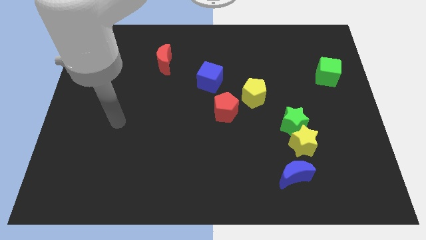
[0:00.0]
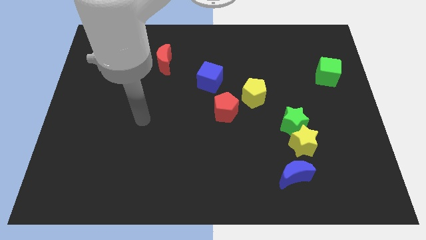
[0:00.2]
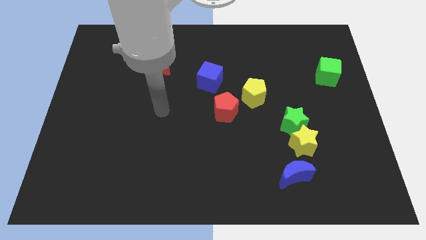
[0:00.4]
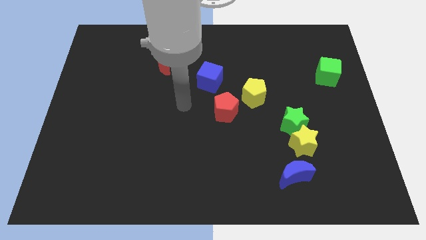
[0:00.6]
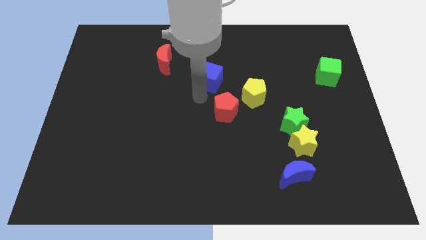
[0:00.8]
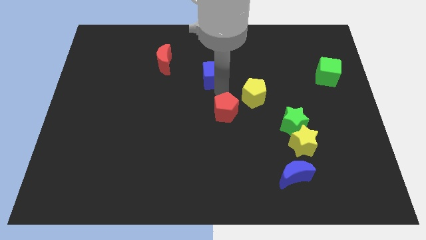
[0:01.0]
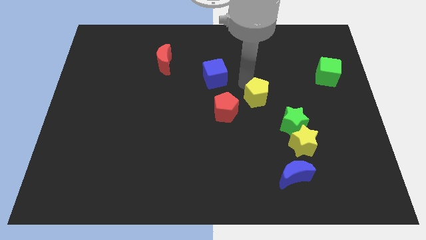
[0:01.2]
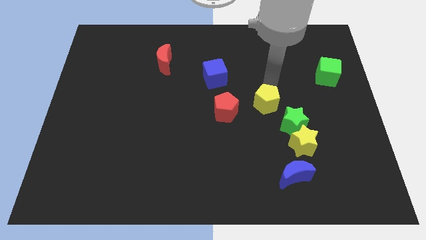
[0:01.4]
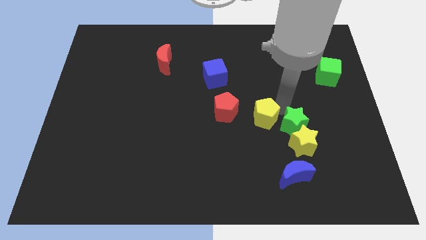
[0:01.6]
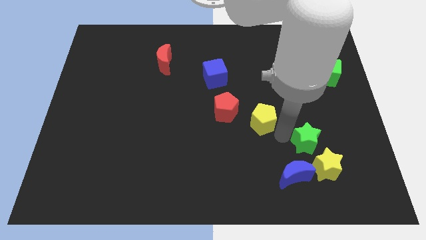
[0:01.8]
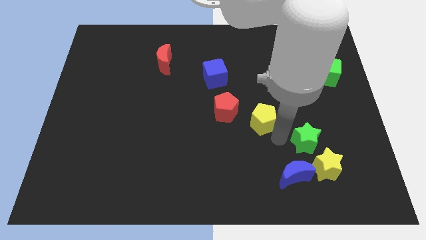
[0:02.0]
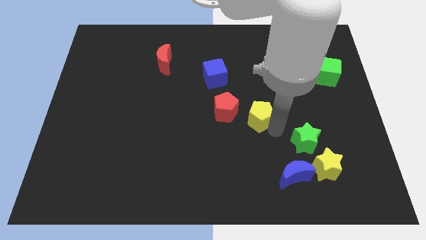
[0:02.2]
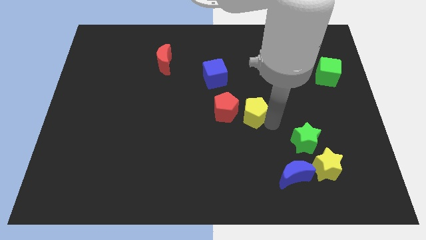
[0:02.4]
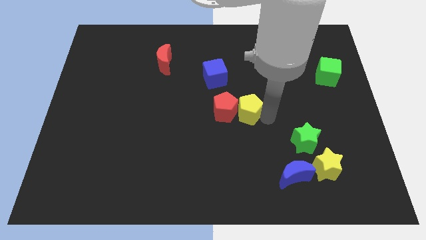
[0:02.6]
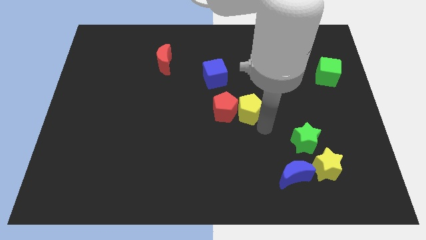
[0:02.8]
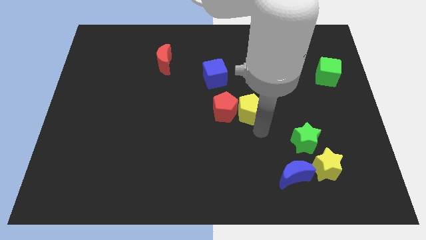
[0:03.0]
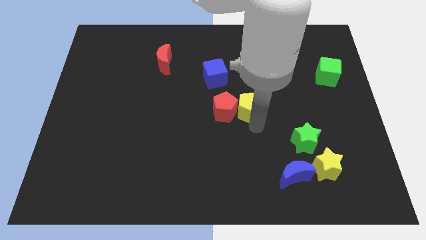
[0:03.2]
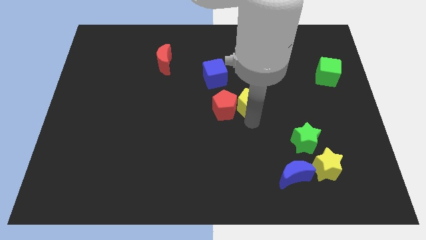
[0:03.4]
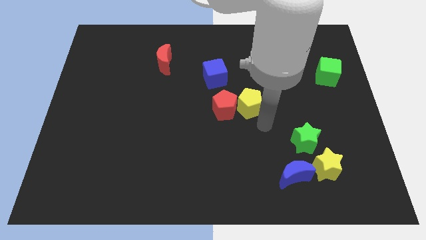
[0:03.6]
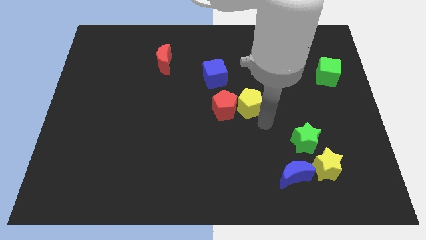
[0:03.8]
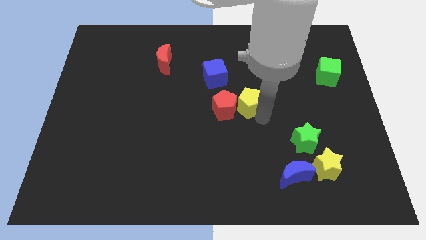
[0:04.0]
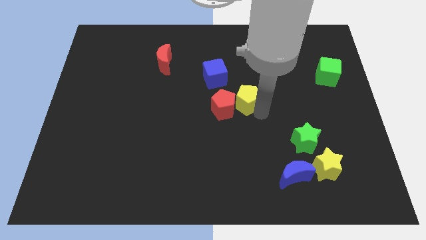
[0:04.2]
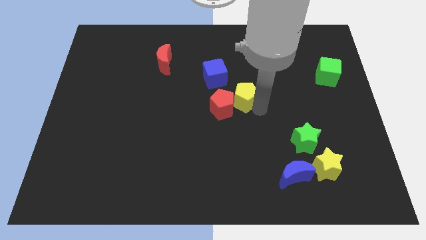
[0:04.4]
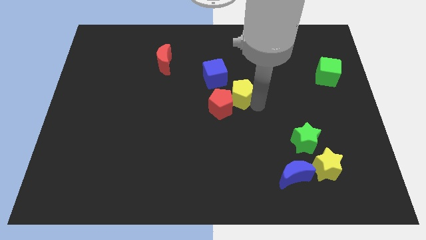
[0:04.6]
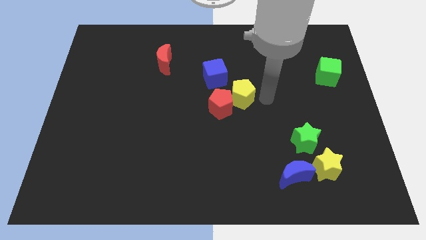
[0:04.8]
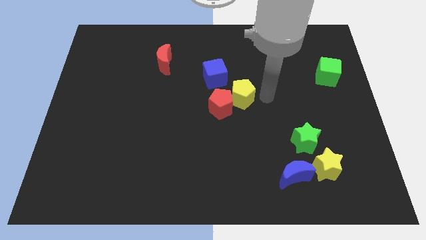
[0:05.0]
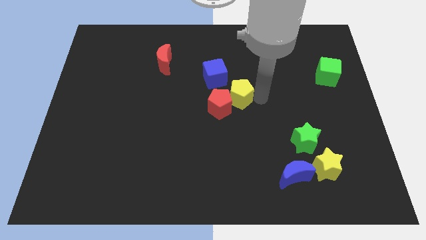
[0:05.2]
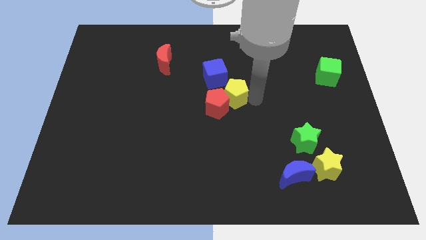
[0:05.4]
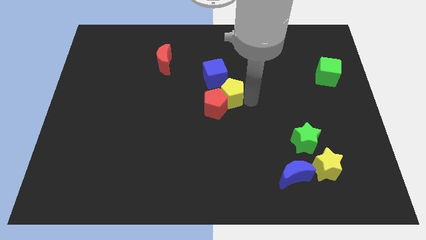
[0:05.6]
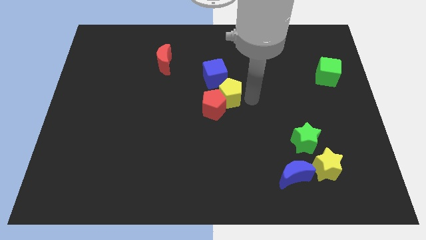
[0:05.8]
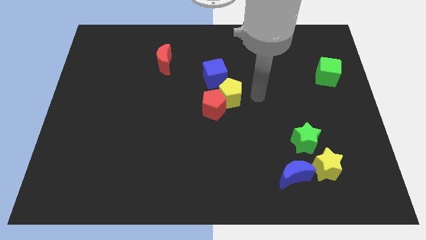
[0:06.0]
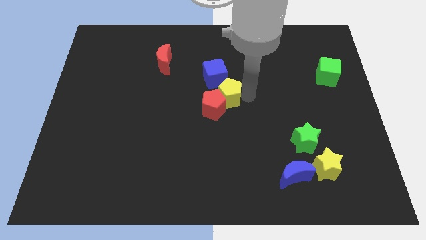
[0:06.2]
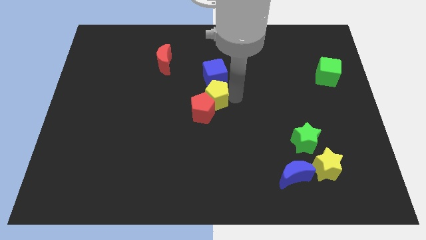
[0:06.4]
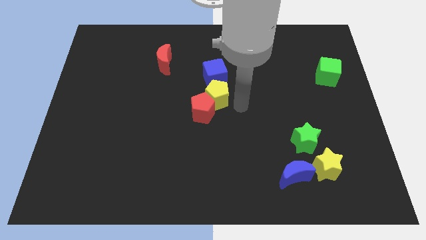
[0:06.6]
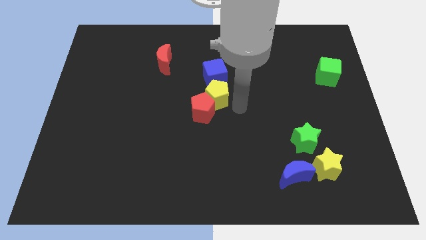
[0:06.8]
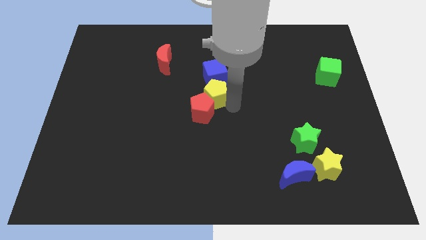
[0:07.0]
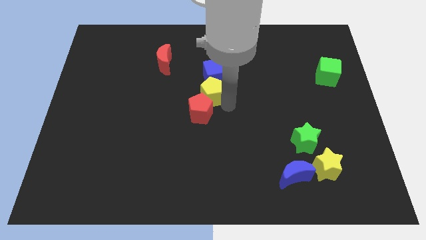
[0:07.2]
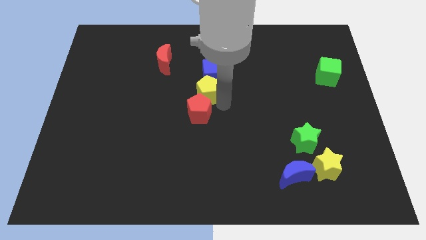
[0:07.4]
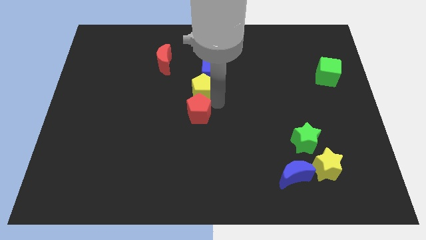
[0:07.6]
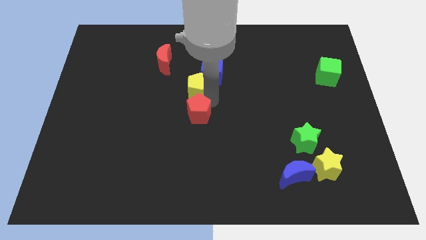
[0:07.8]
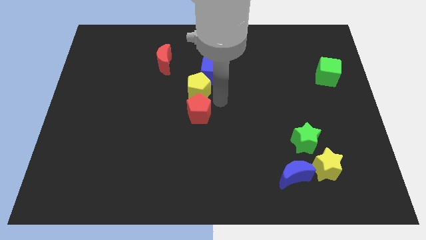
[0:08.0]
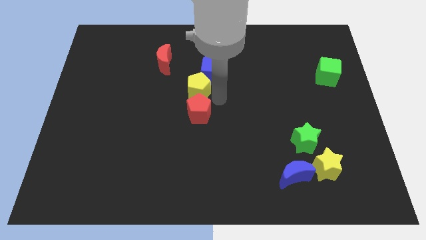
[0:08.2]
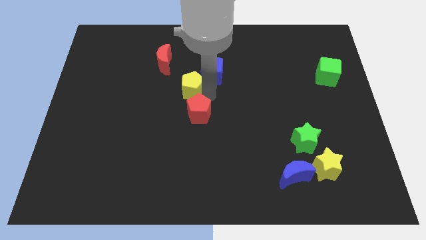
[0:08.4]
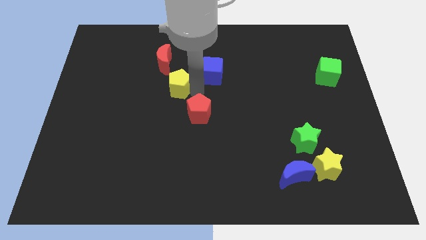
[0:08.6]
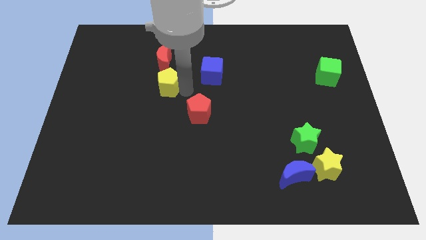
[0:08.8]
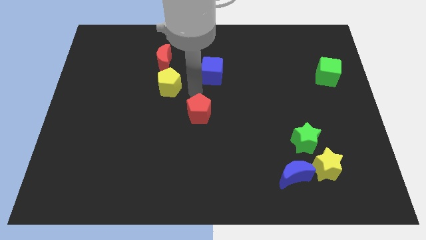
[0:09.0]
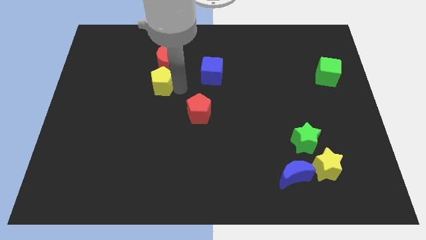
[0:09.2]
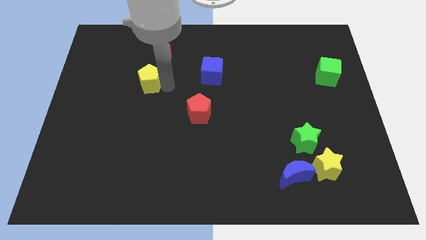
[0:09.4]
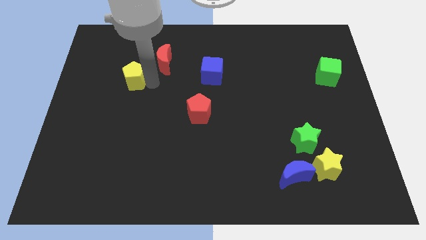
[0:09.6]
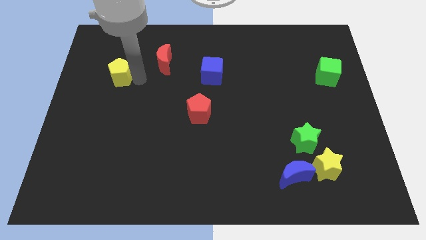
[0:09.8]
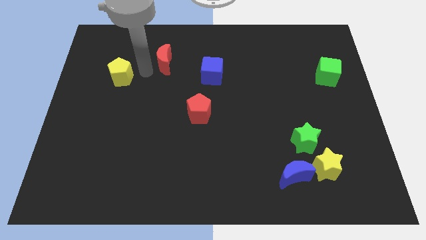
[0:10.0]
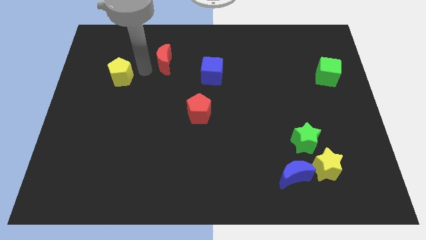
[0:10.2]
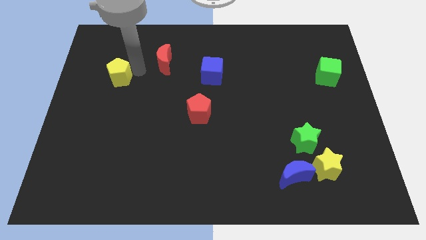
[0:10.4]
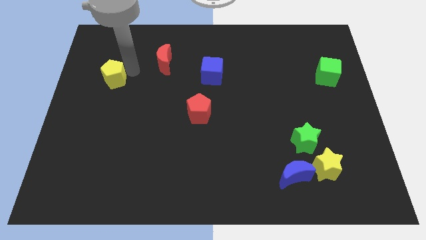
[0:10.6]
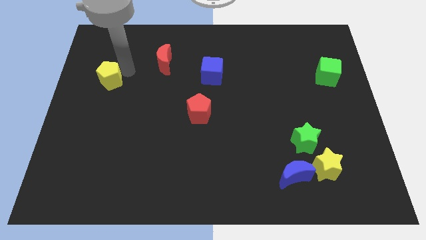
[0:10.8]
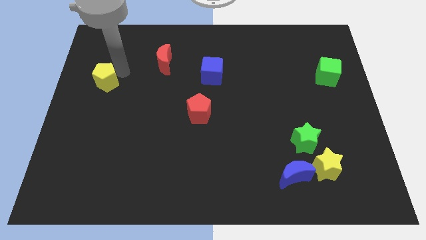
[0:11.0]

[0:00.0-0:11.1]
move the yellow pentagon to the center left
